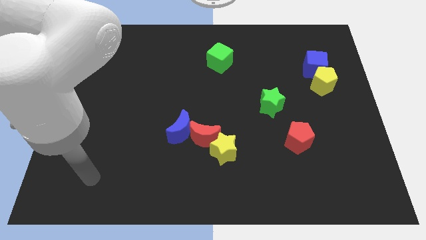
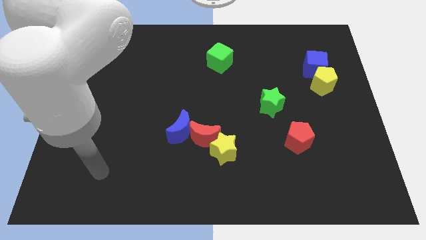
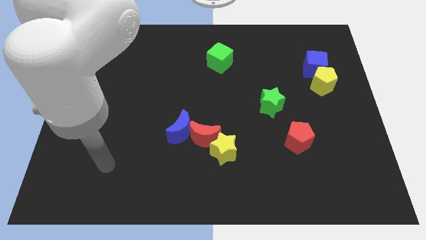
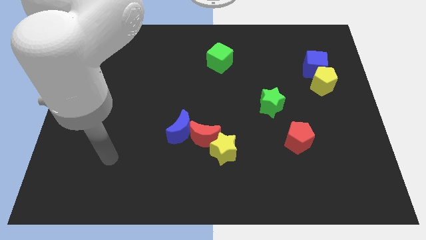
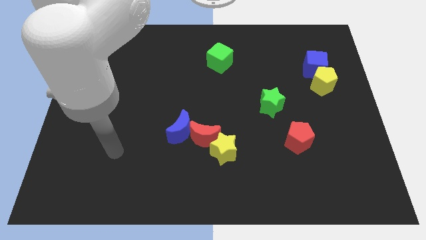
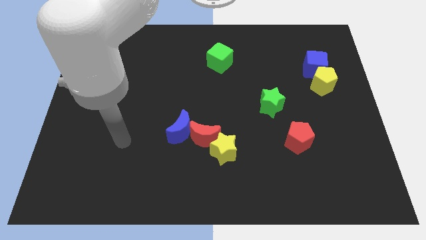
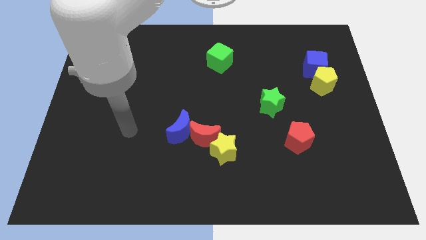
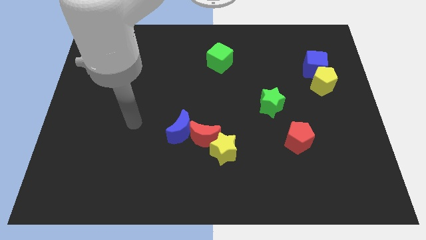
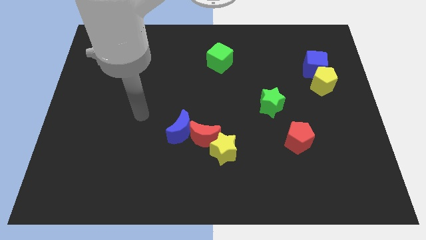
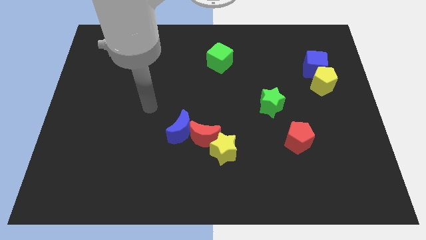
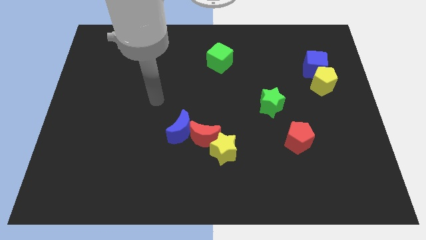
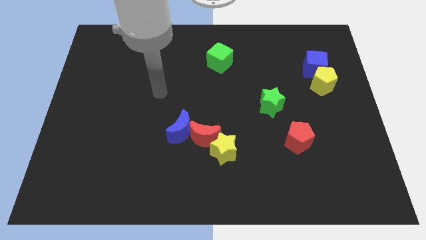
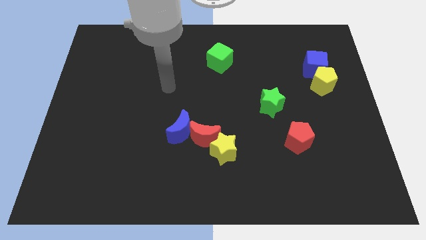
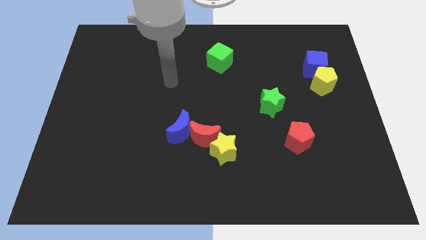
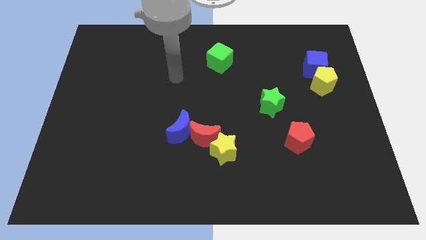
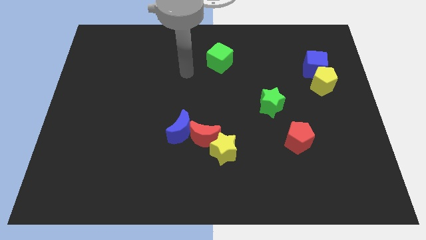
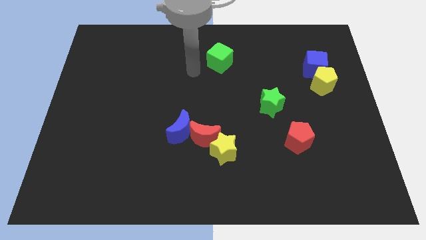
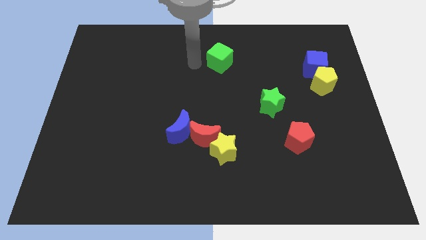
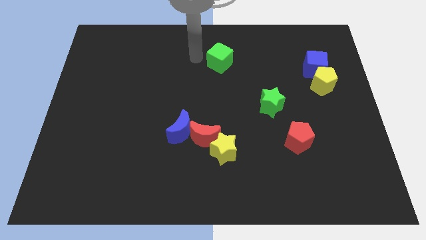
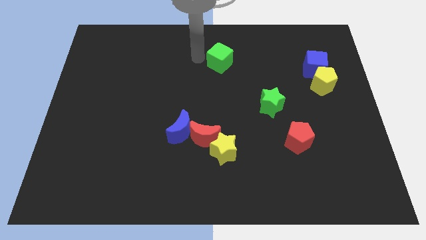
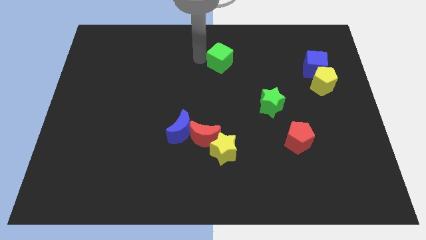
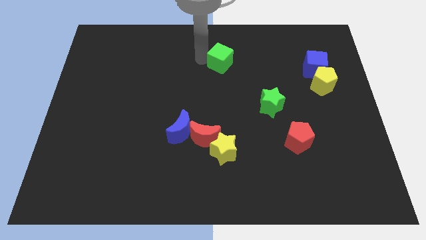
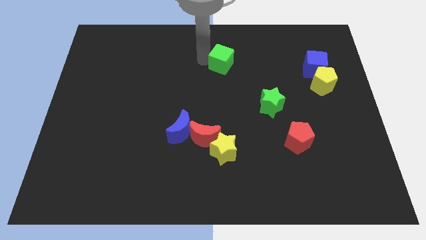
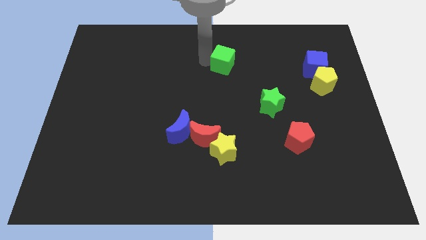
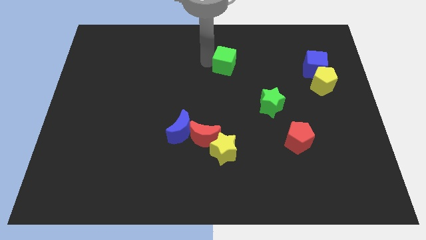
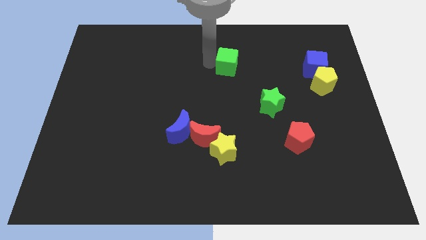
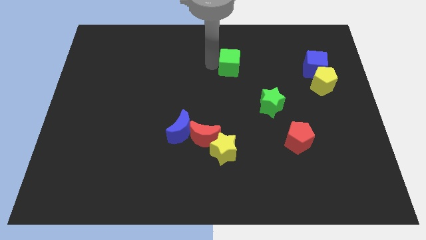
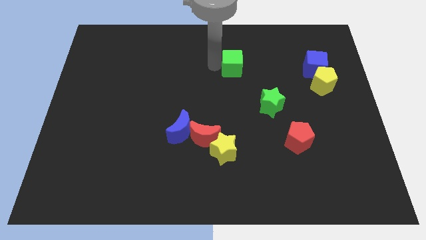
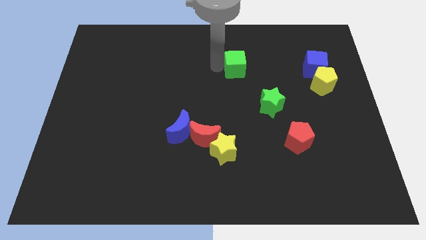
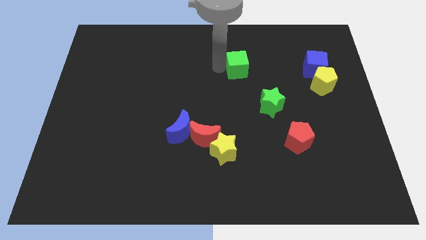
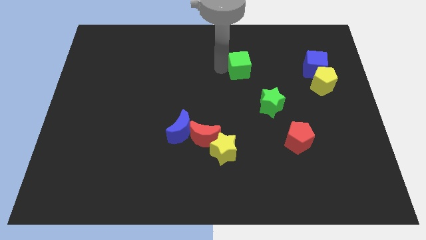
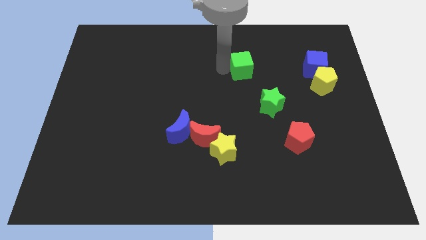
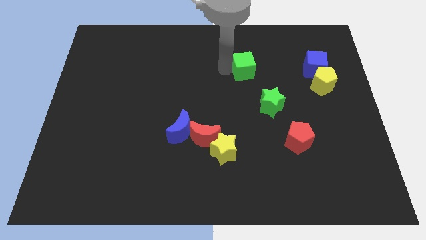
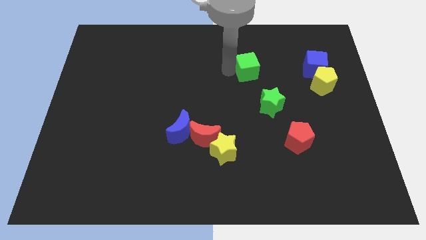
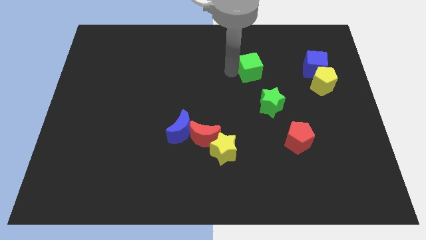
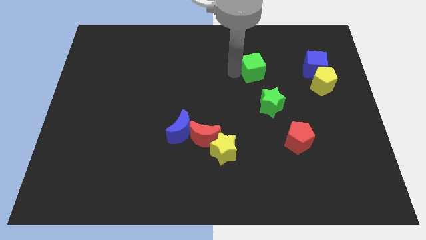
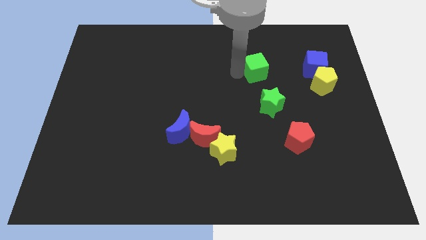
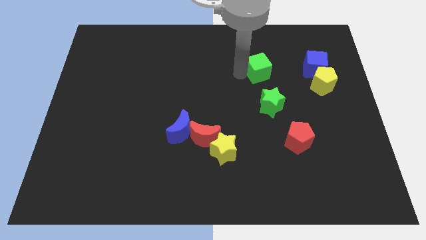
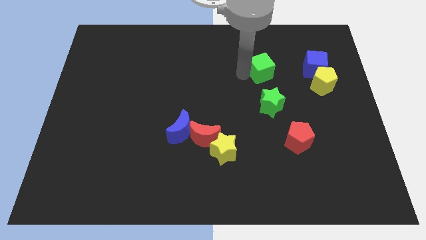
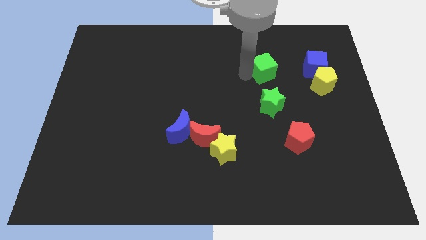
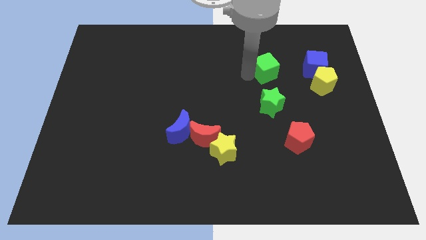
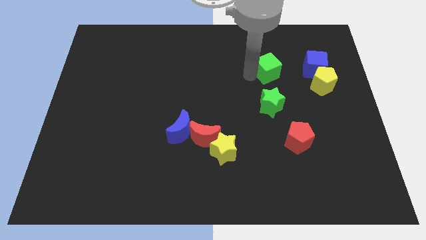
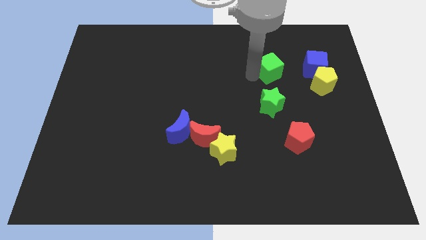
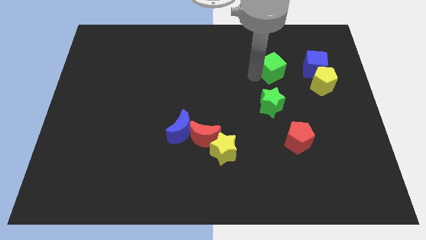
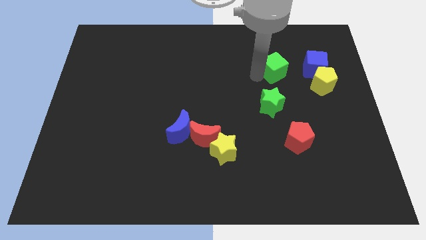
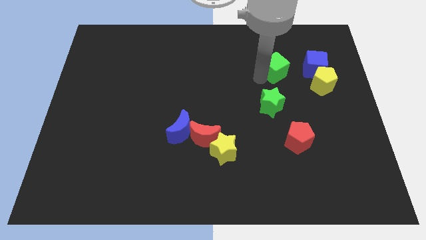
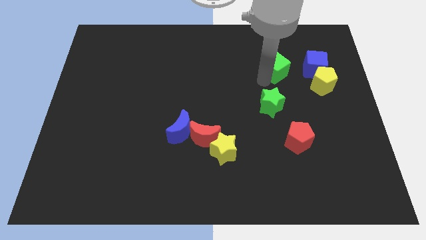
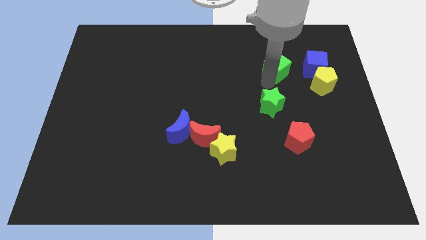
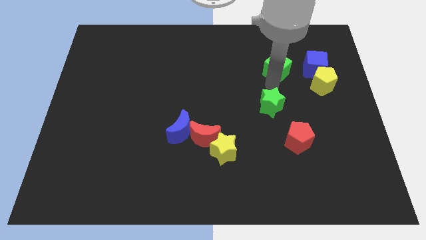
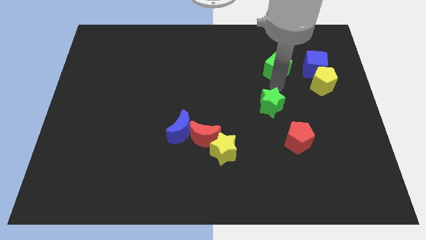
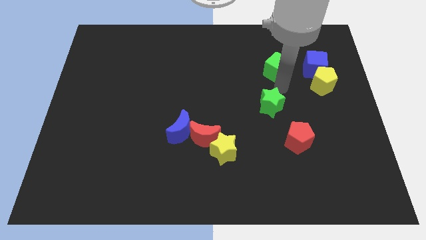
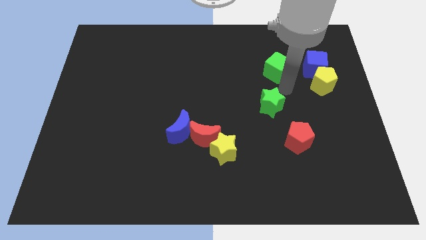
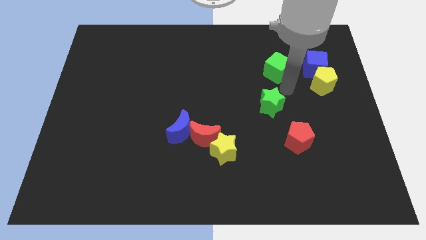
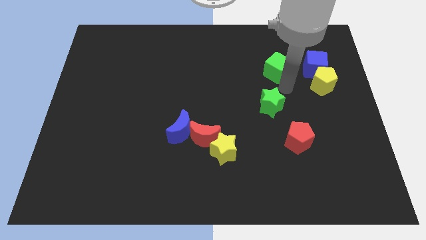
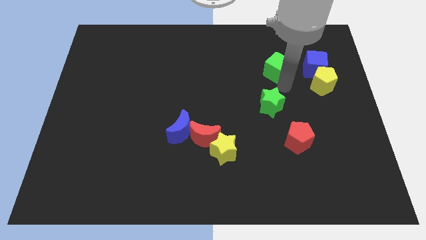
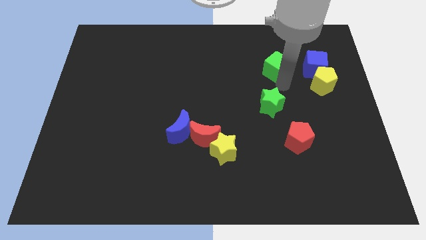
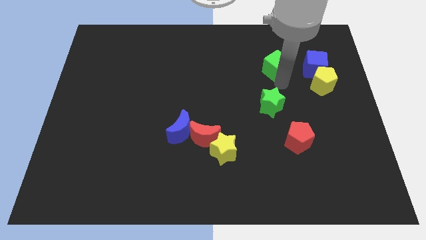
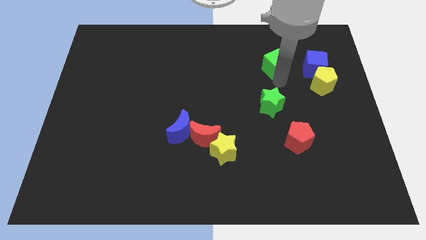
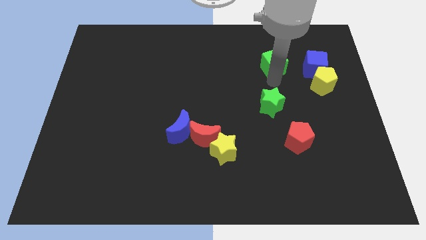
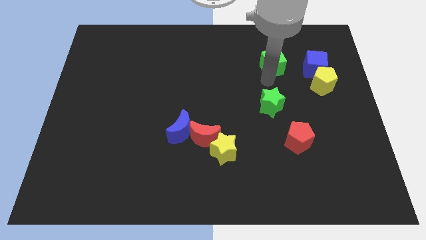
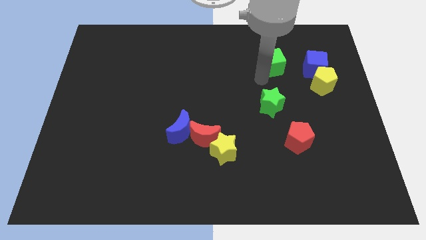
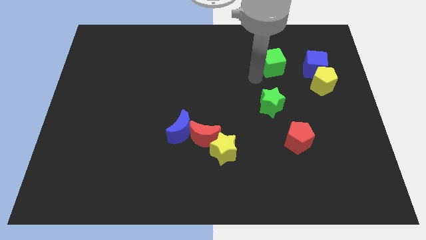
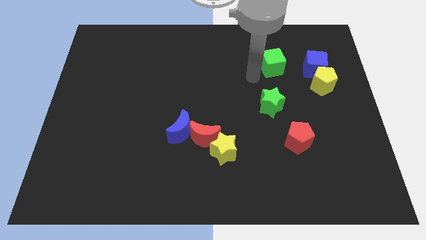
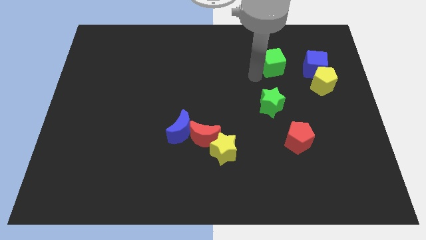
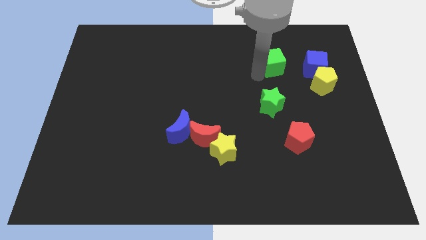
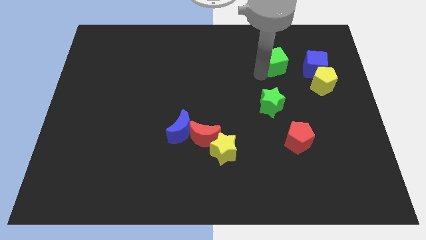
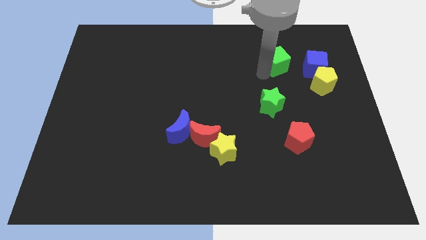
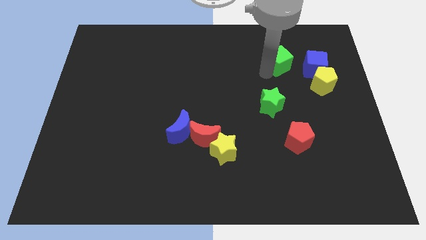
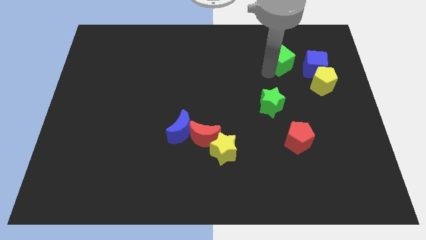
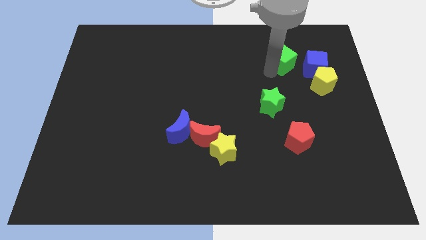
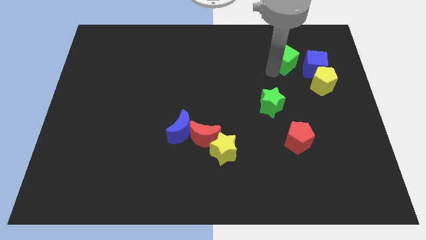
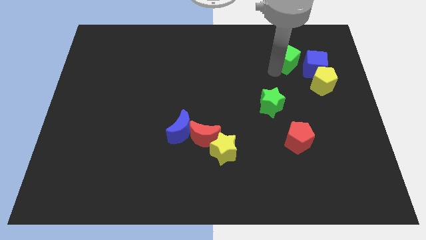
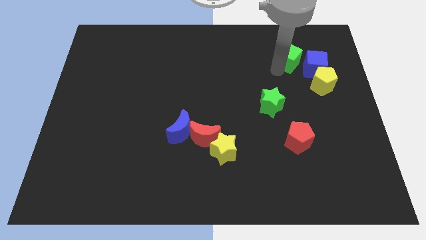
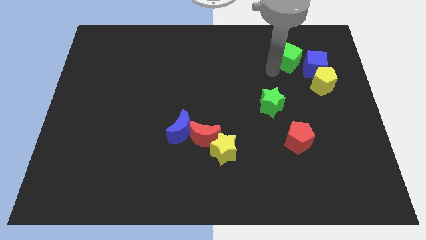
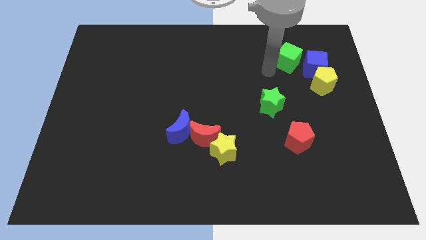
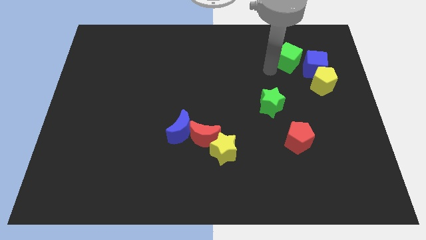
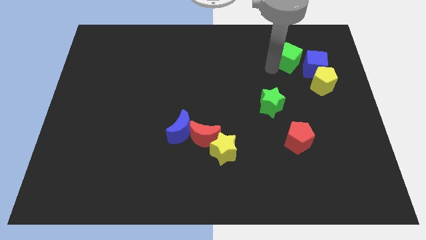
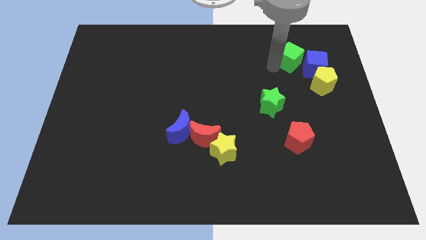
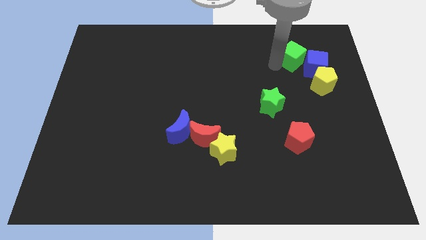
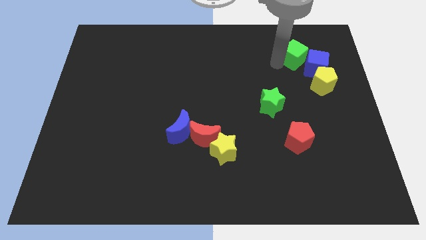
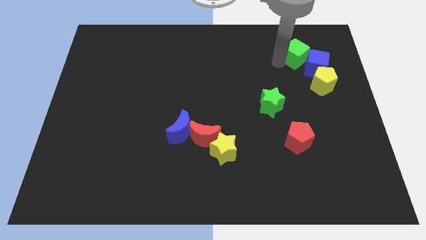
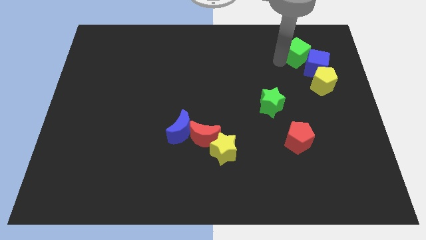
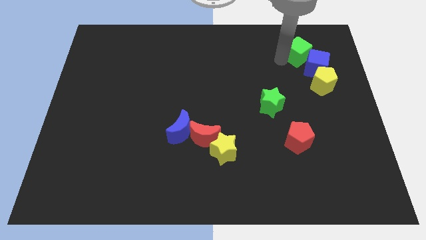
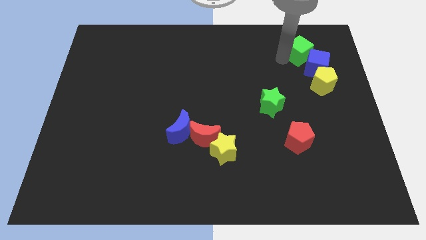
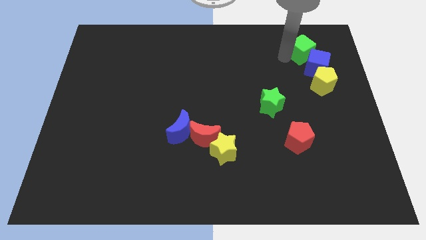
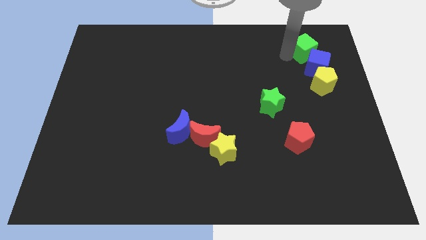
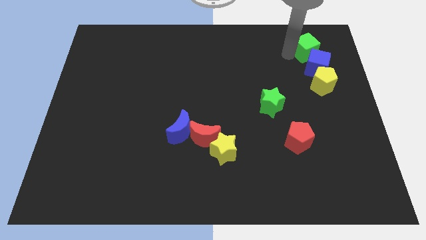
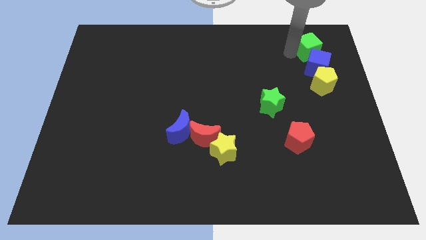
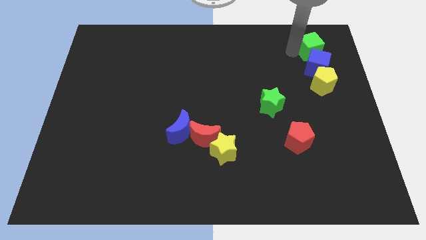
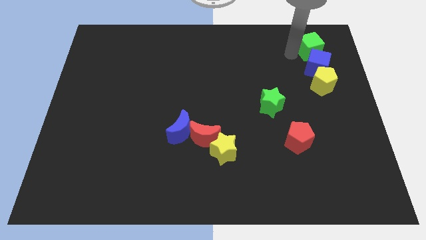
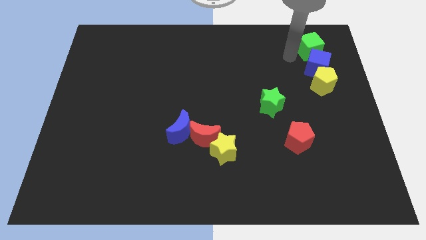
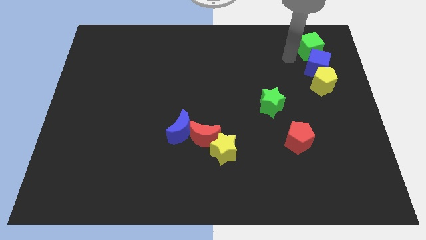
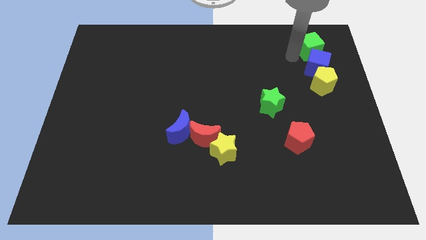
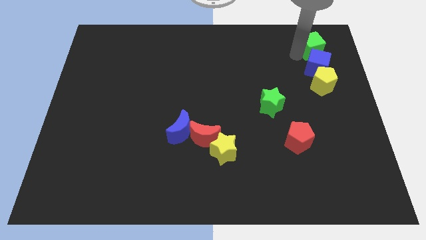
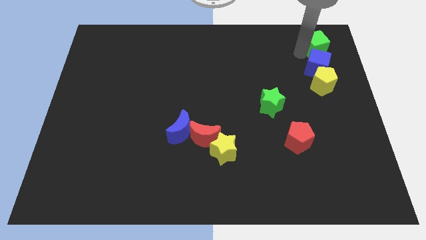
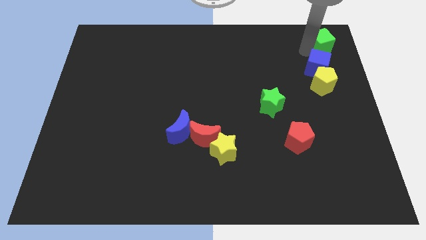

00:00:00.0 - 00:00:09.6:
move the green cube to the top right of the board
